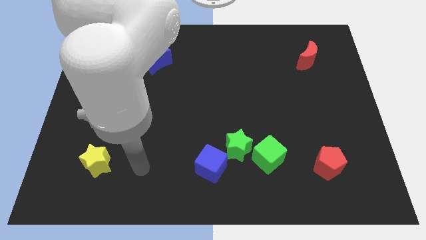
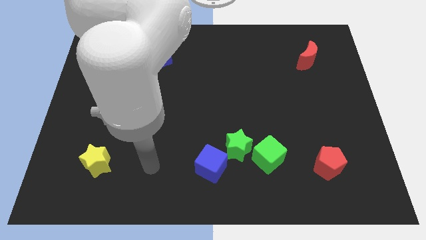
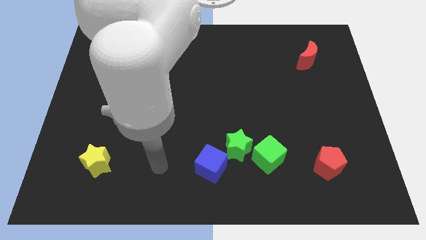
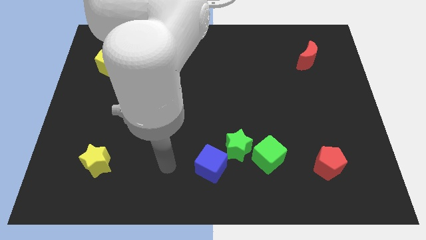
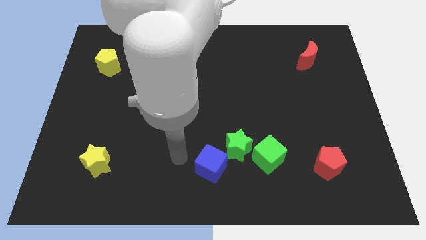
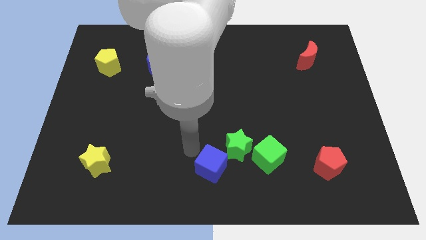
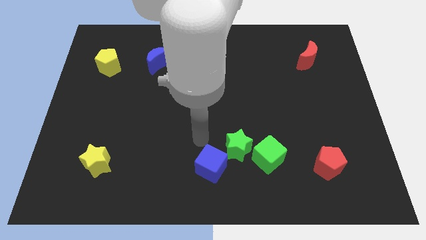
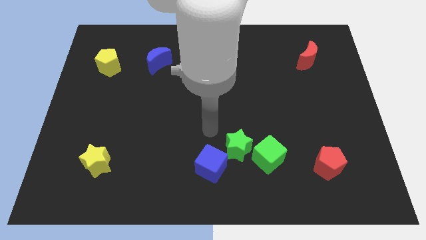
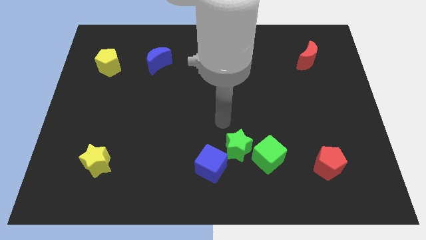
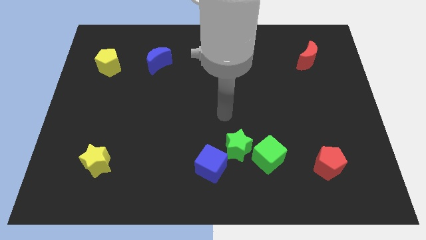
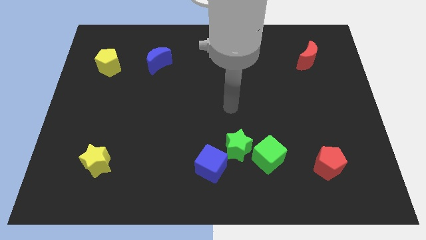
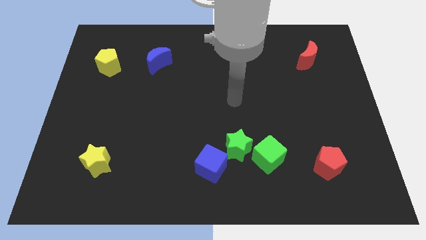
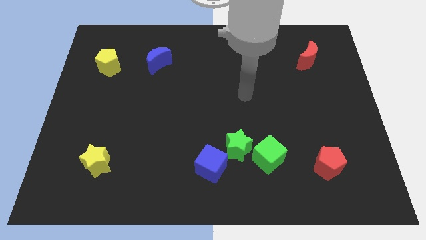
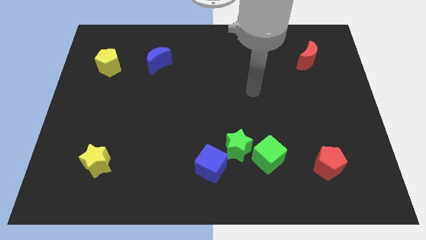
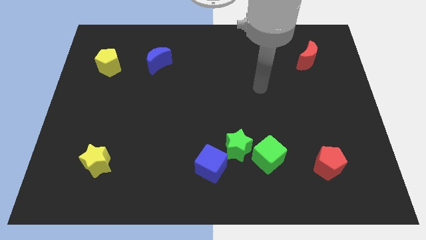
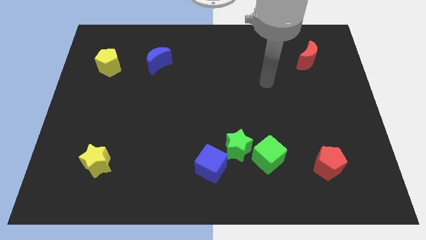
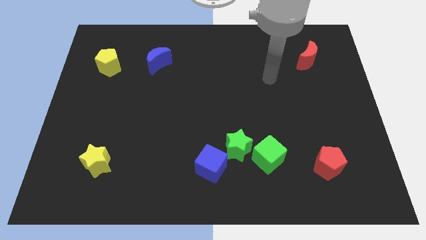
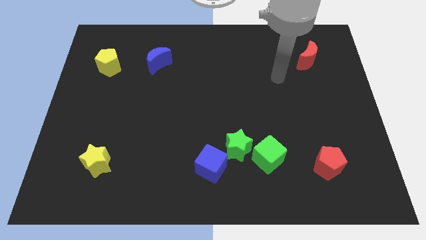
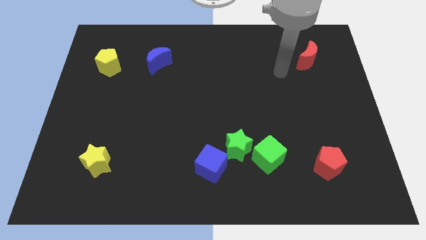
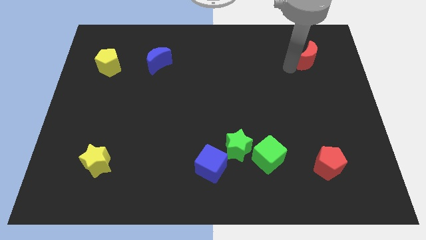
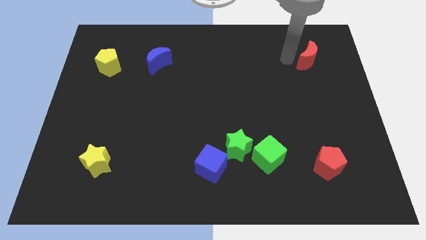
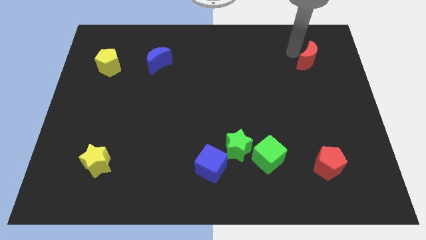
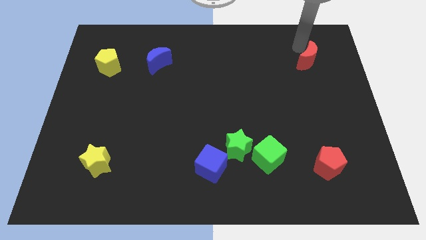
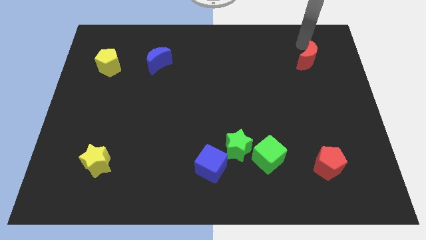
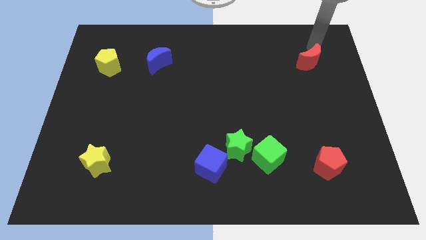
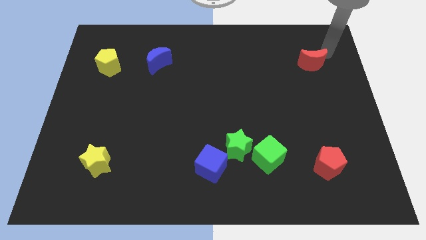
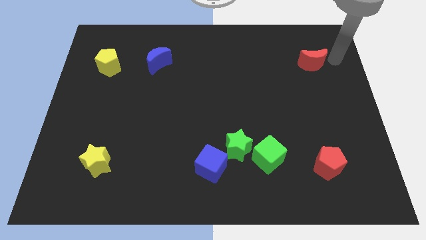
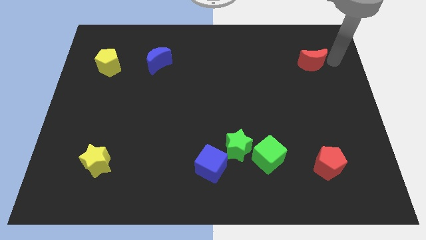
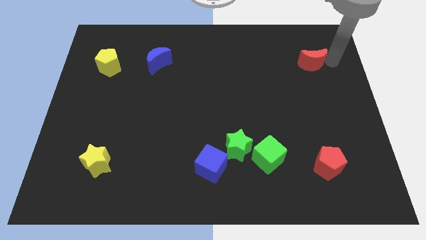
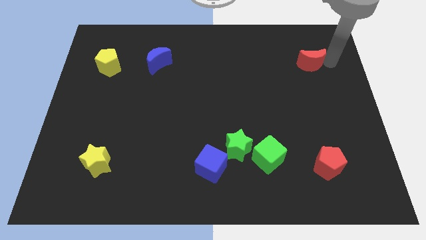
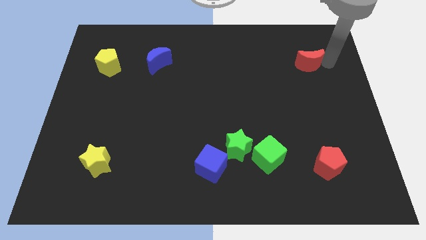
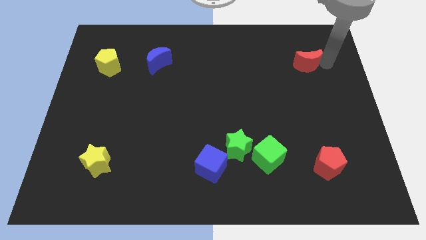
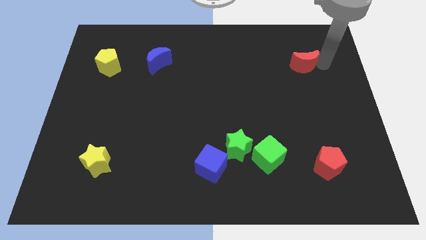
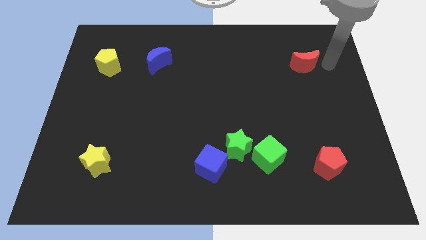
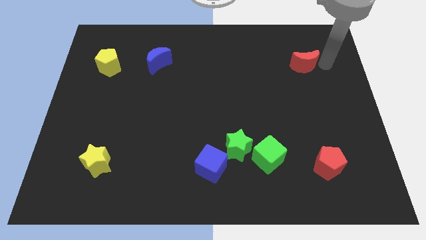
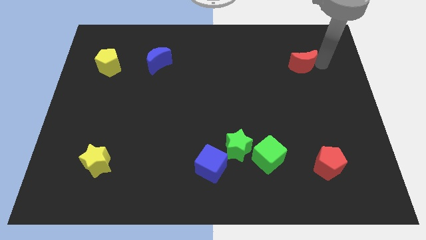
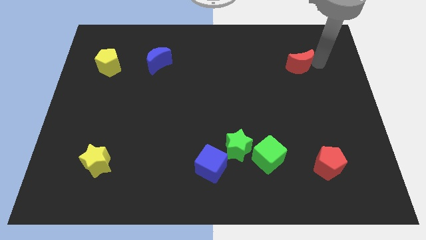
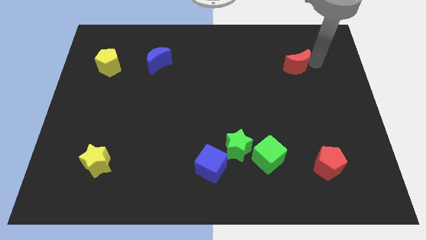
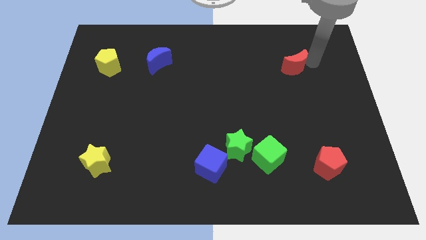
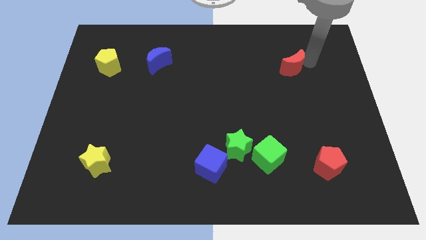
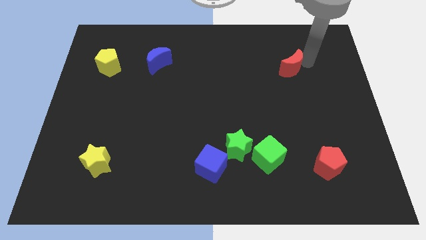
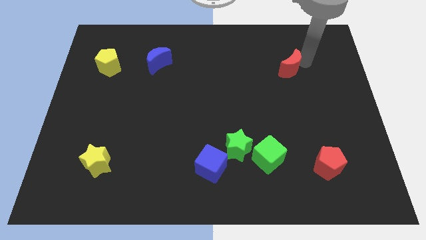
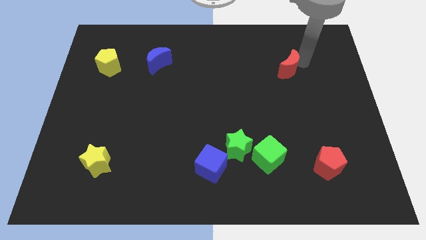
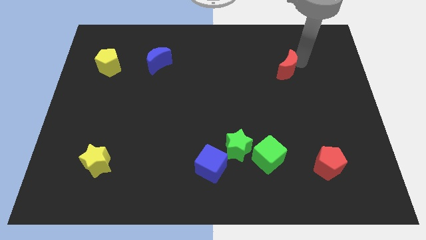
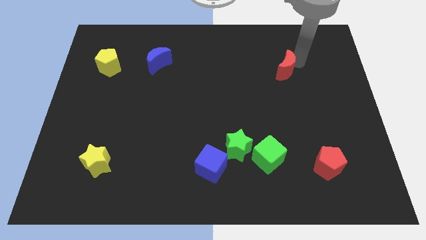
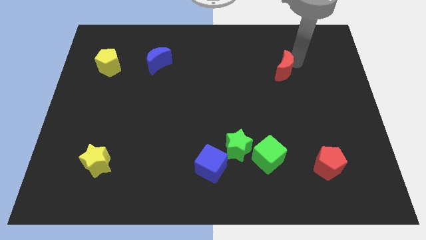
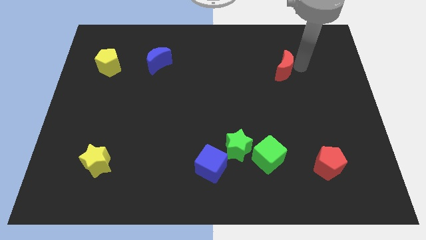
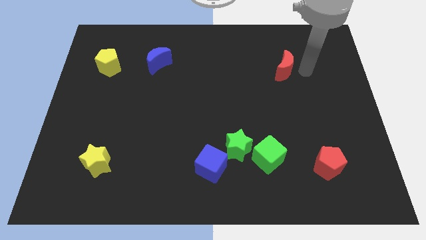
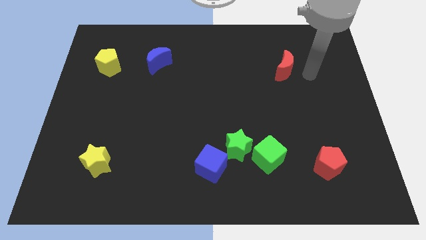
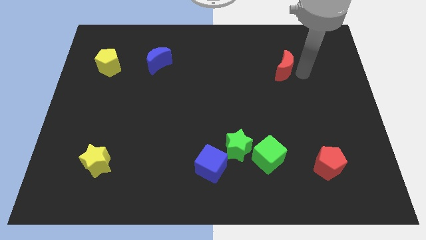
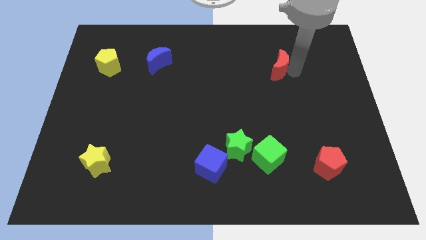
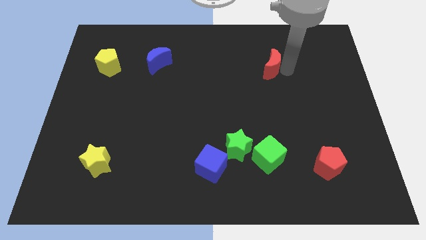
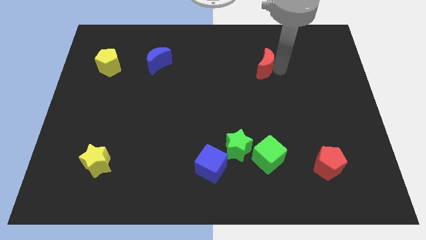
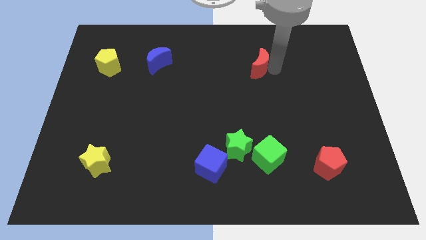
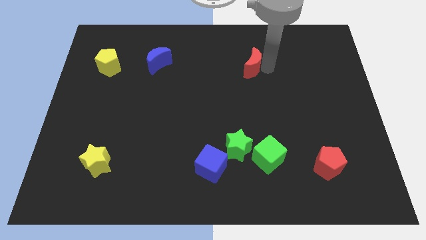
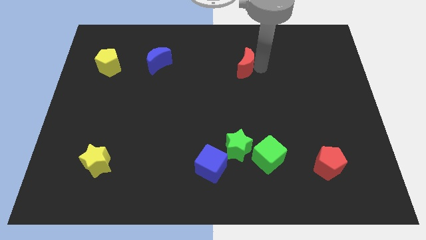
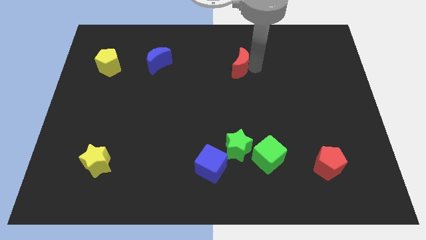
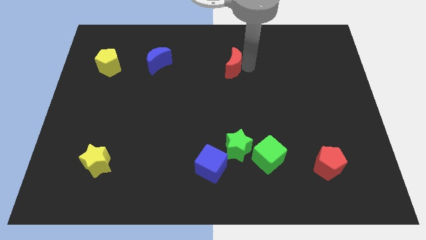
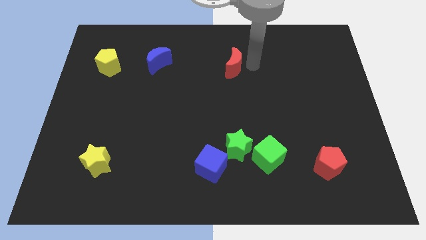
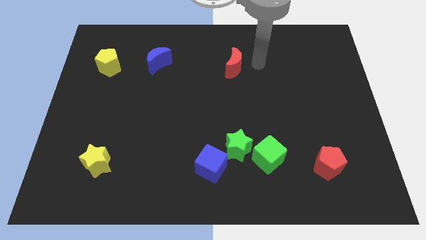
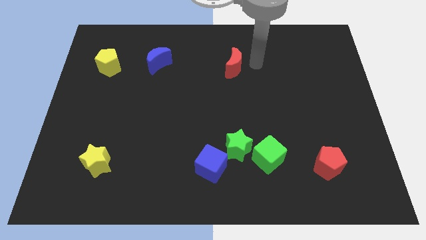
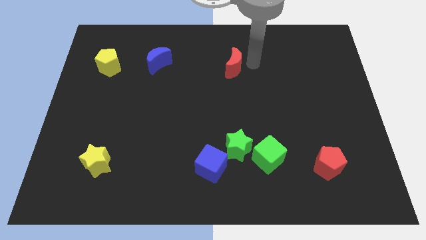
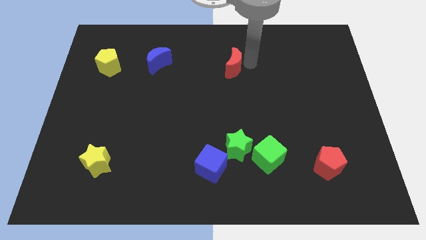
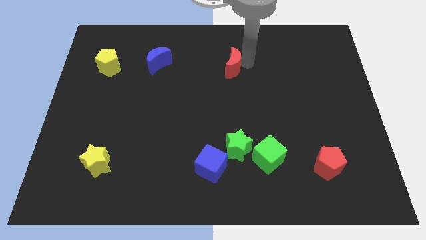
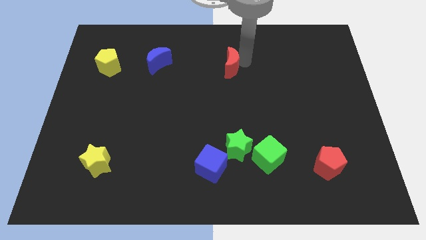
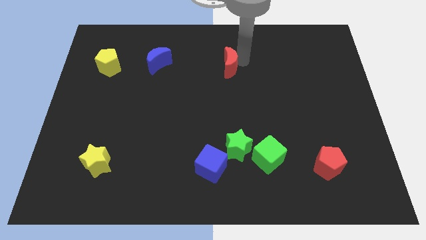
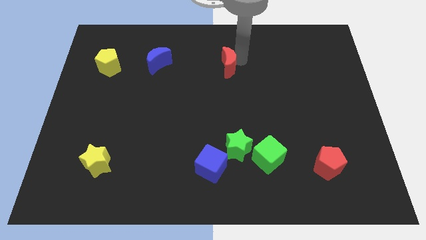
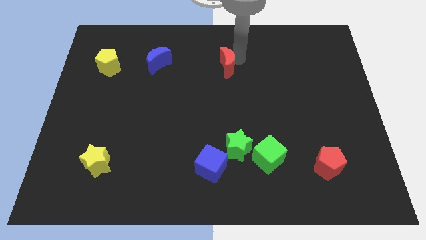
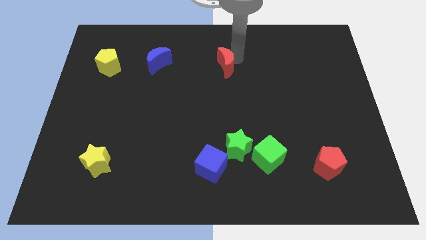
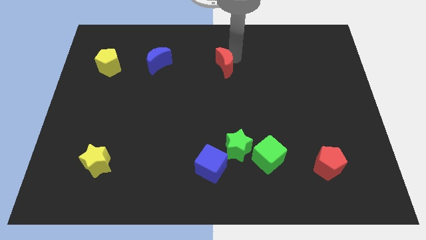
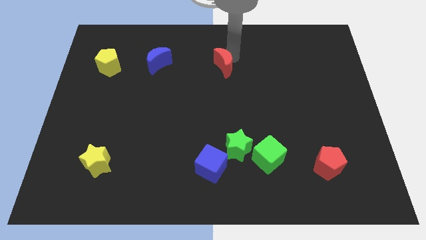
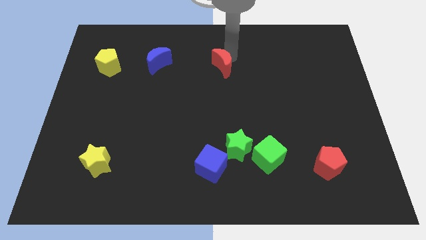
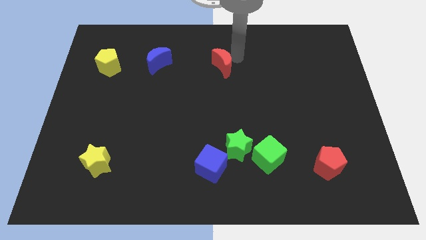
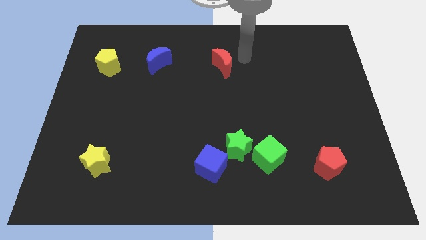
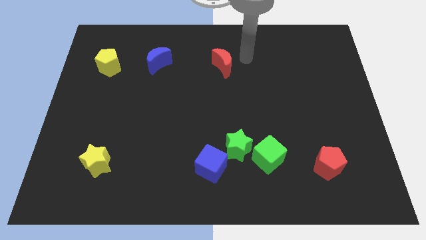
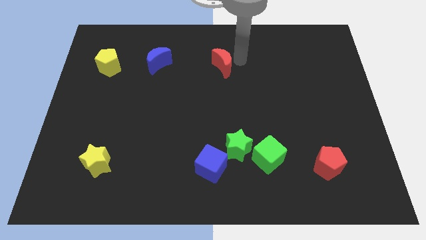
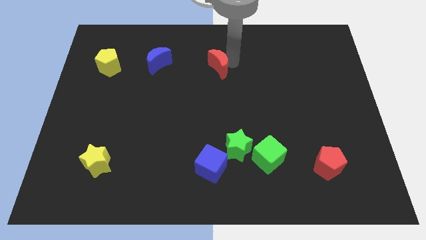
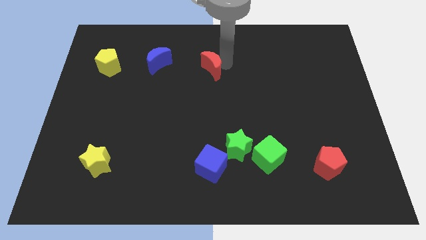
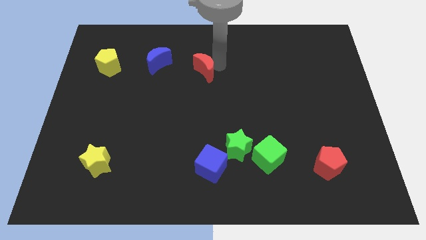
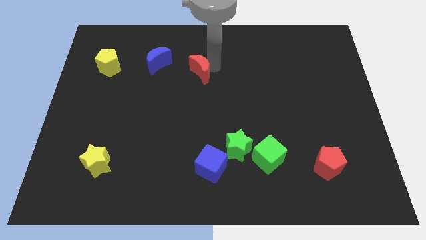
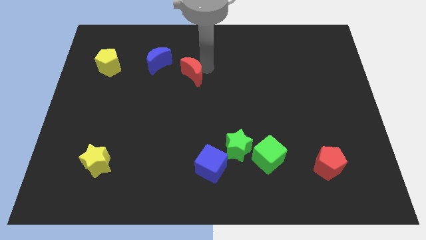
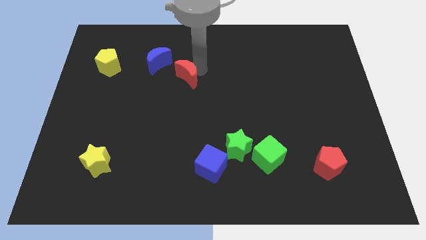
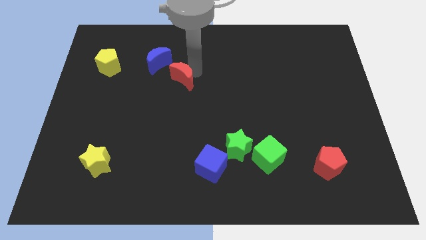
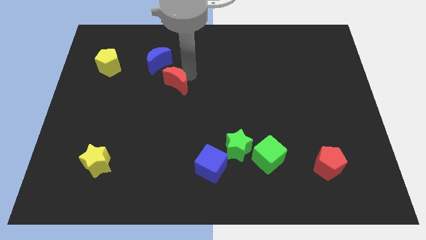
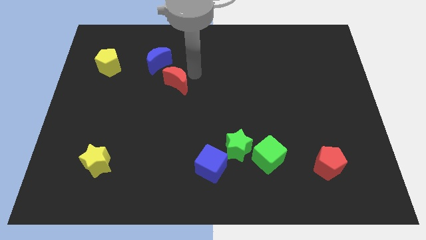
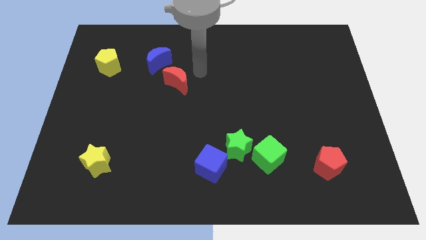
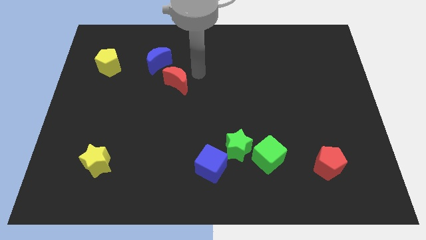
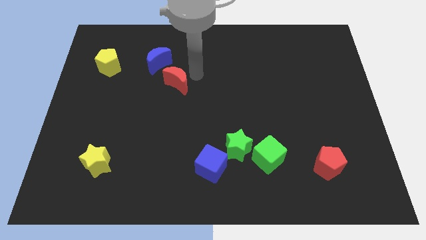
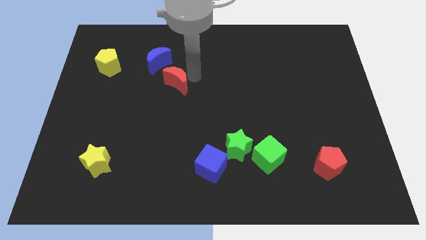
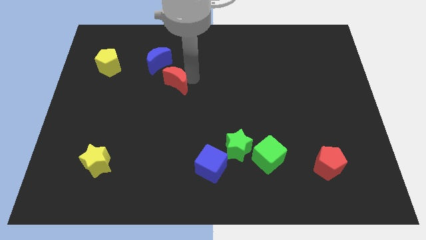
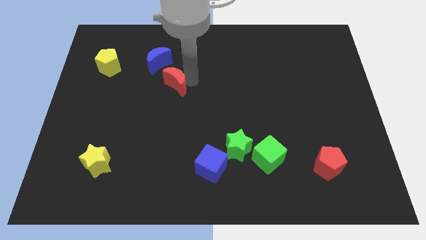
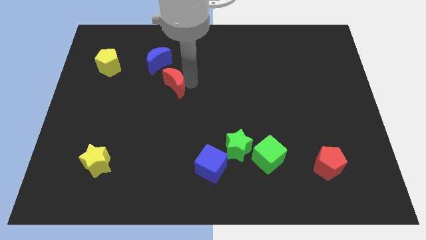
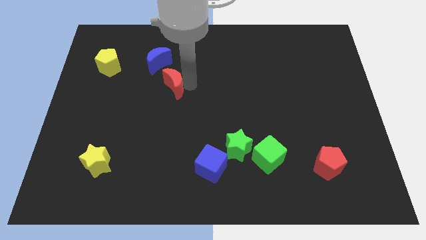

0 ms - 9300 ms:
put the red moon below the blue moon
